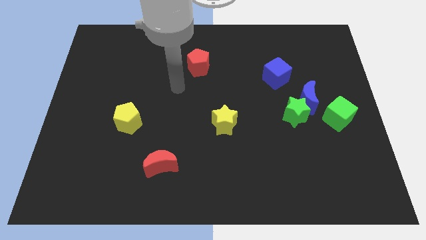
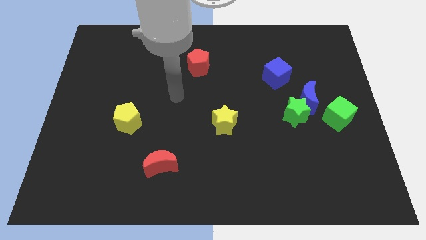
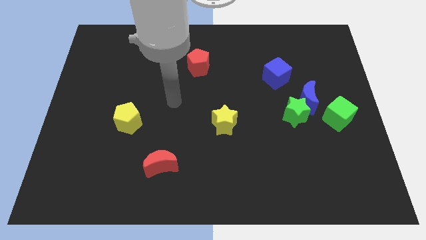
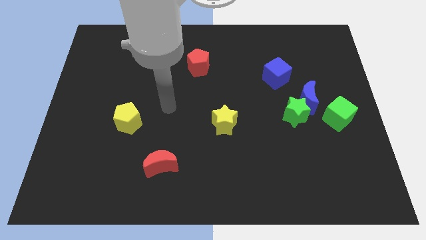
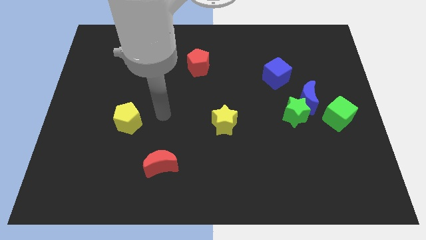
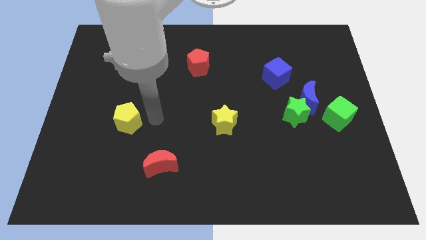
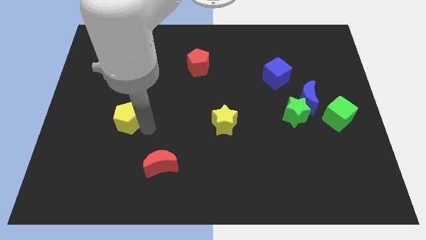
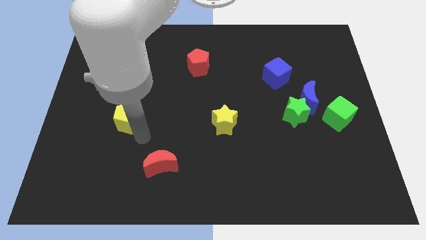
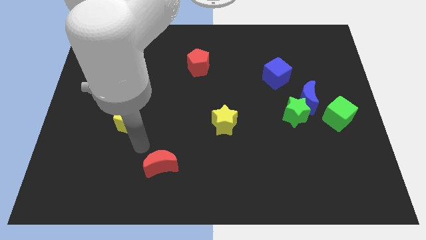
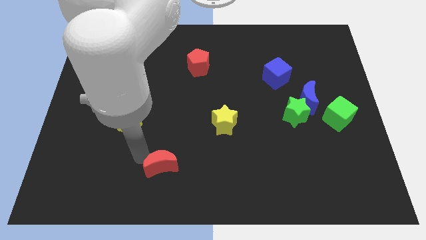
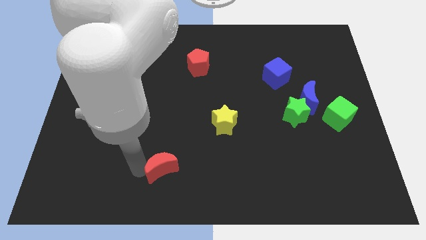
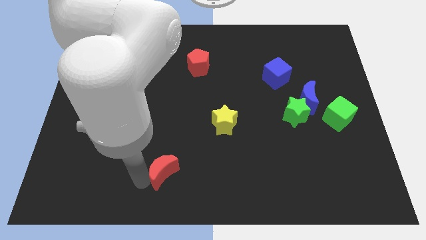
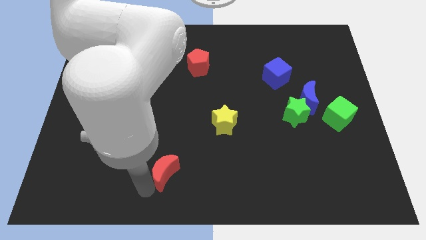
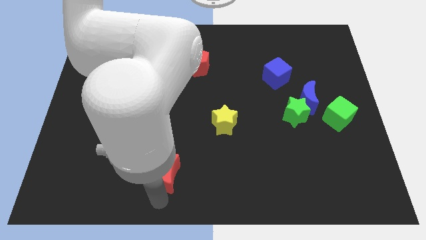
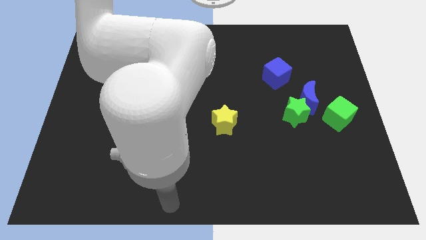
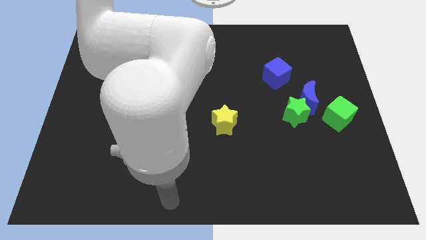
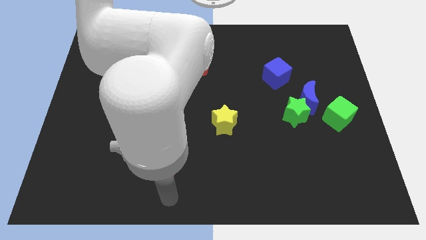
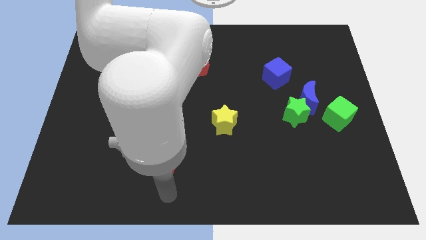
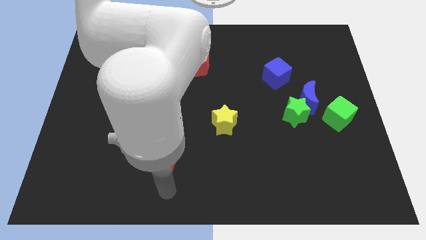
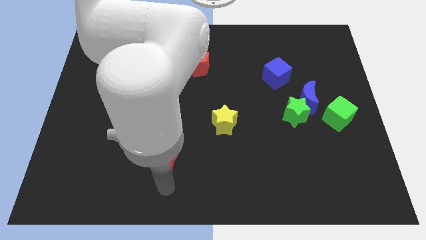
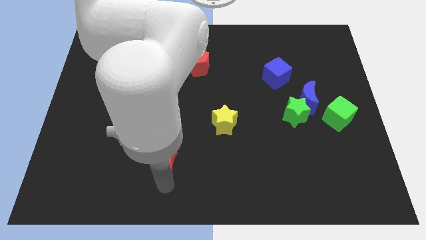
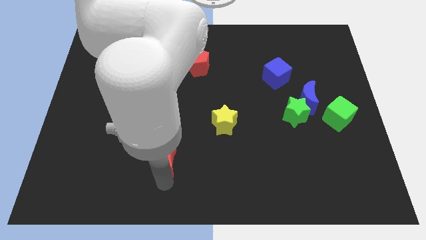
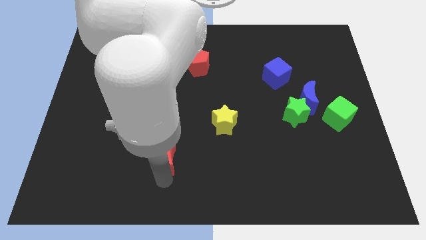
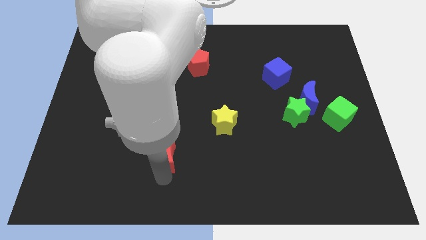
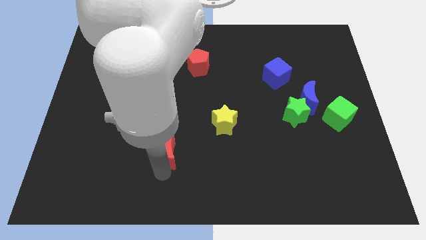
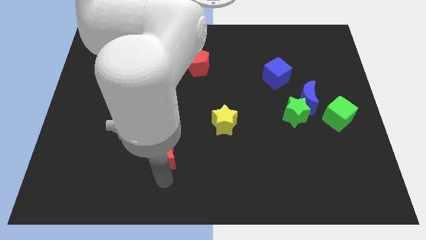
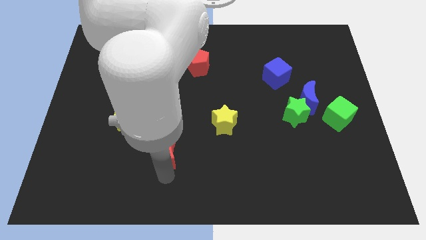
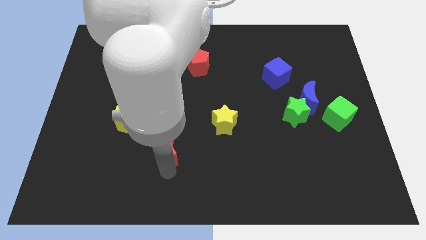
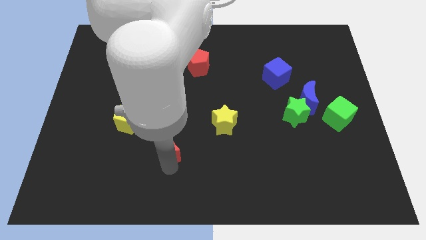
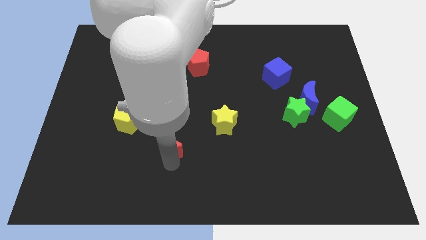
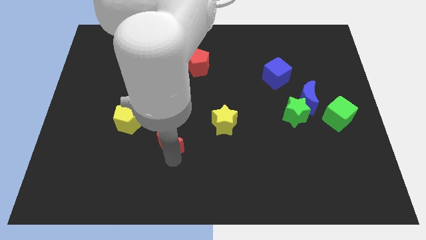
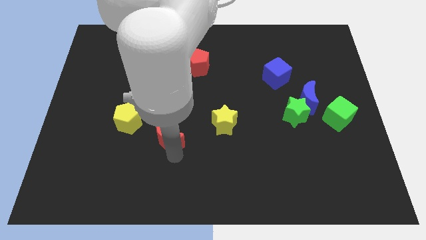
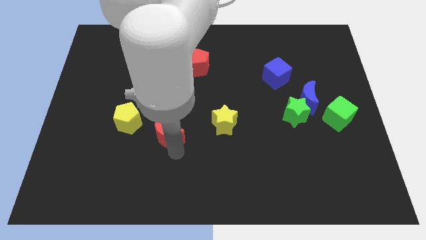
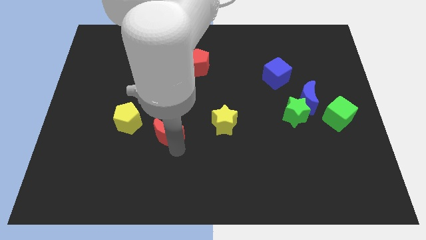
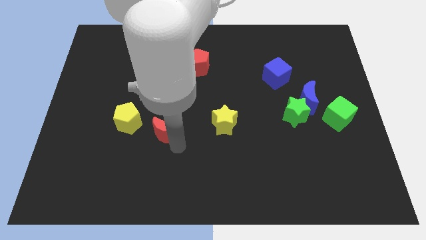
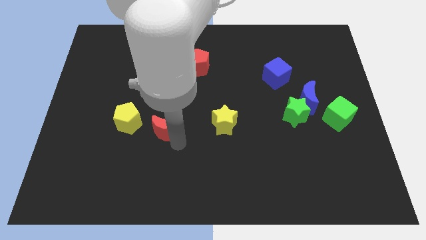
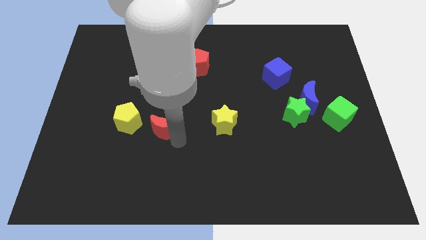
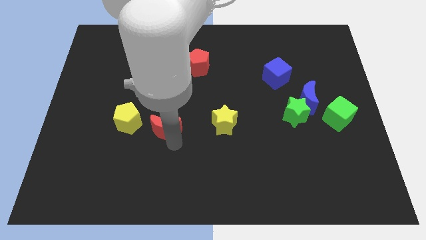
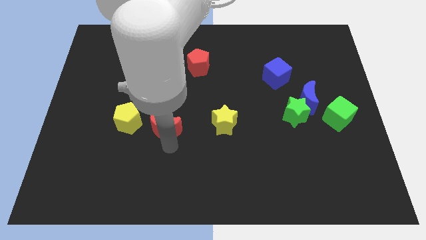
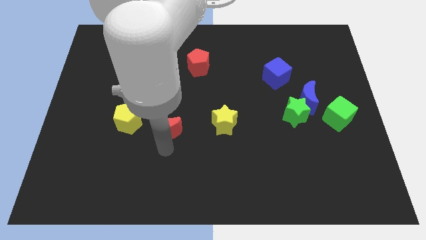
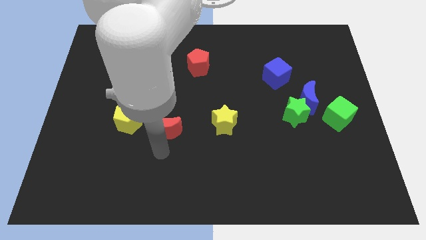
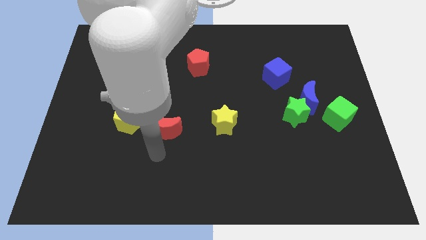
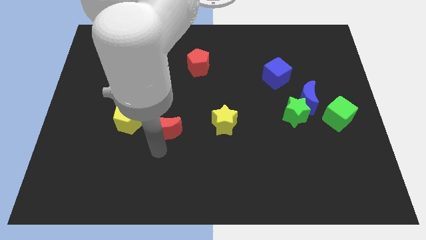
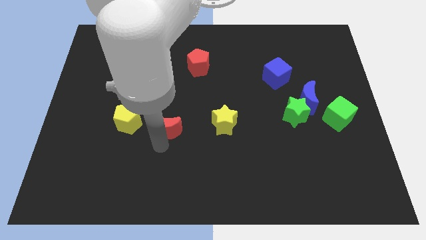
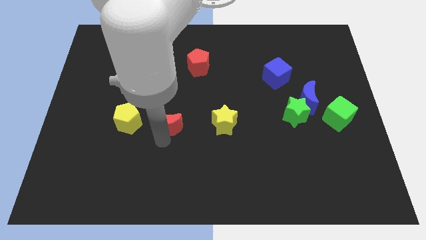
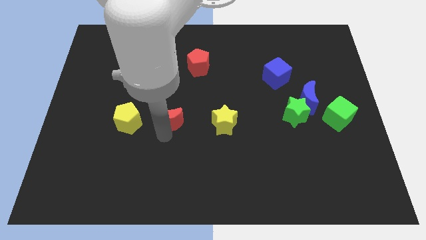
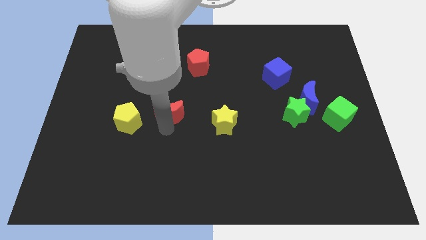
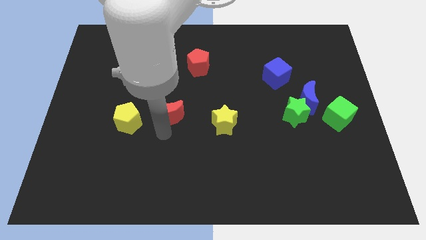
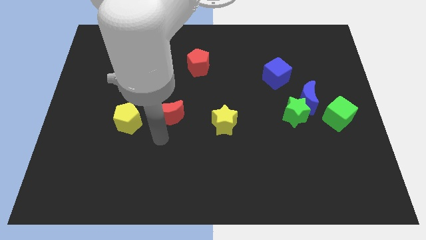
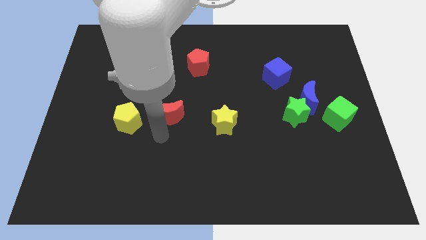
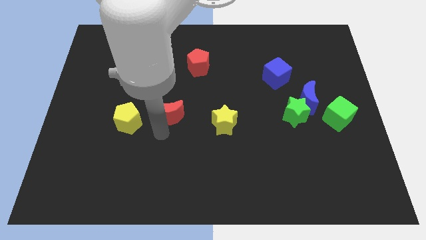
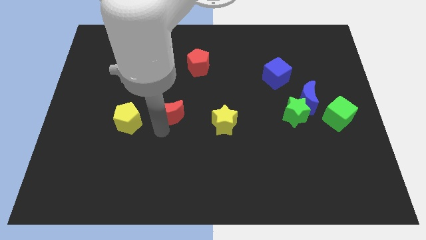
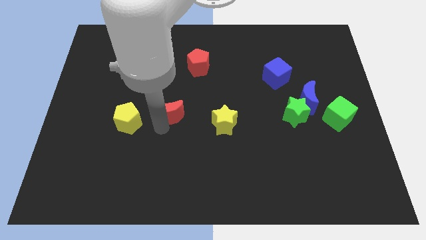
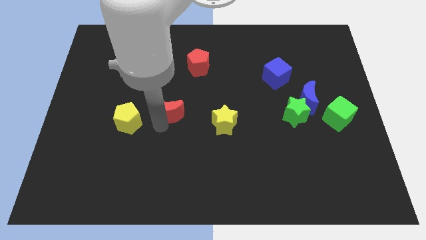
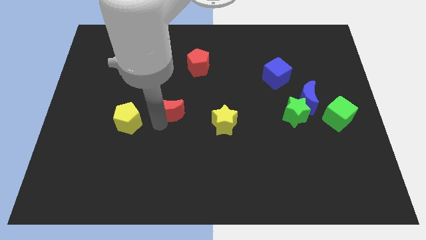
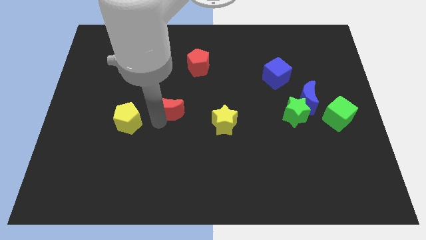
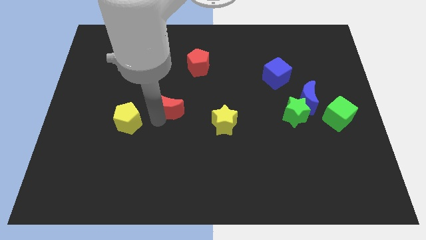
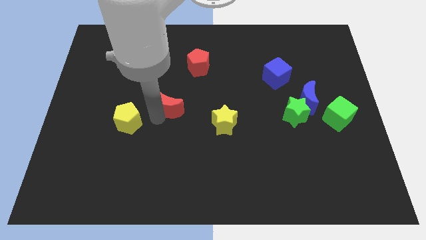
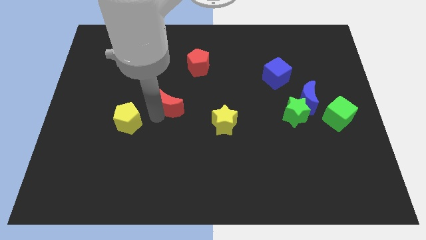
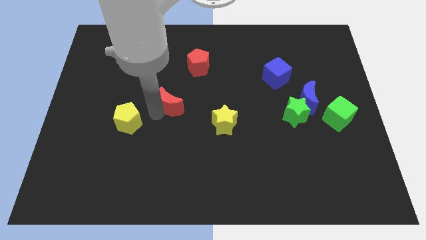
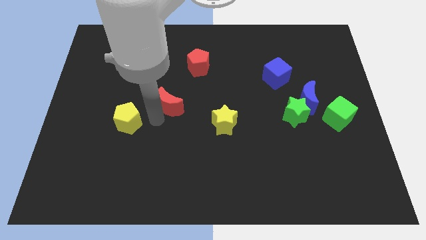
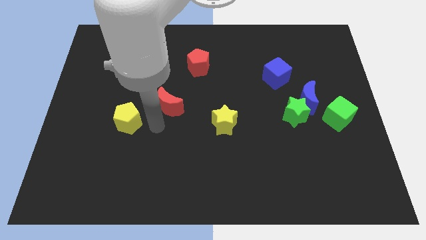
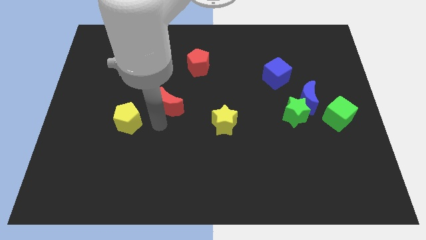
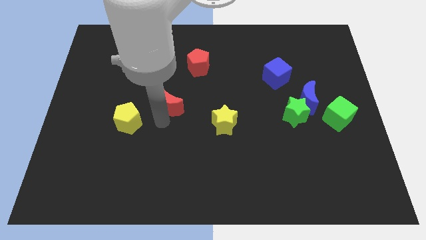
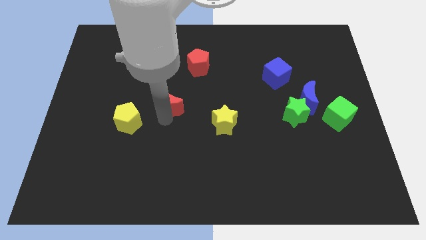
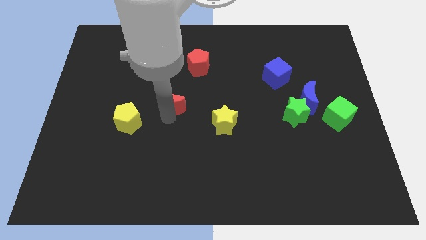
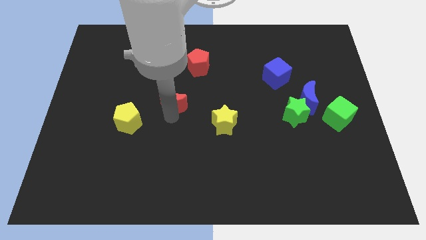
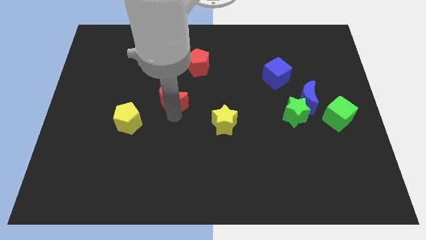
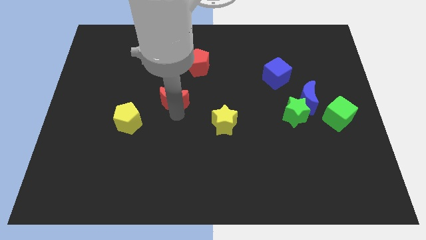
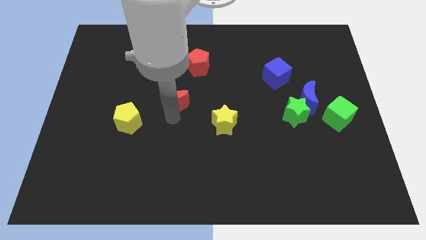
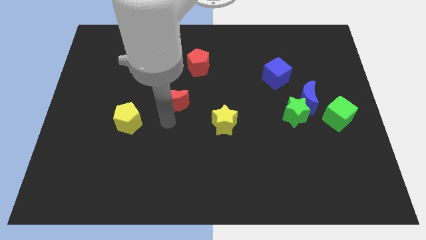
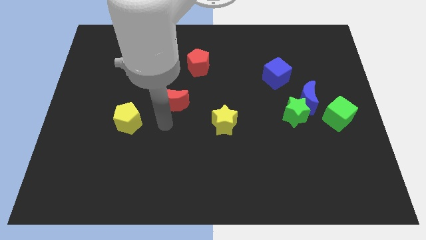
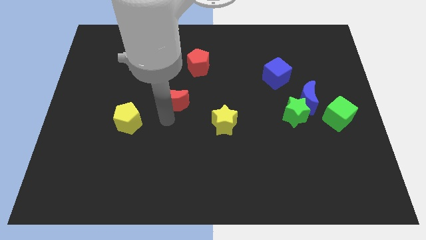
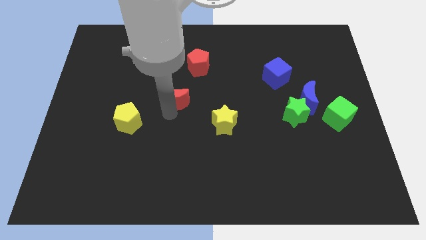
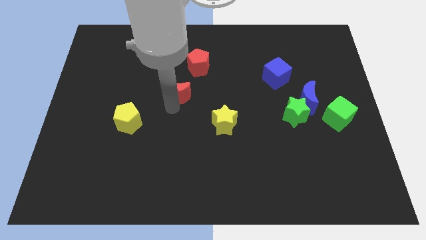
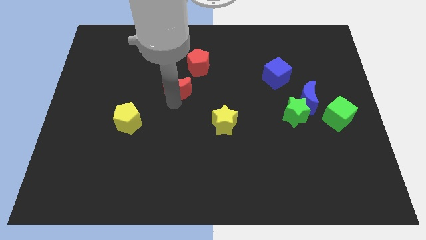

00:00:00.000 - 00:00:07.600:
slide the red moon upwards

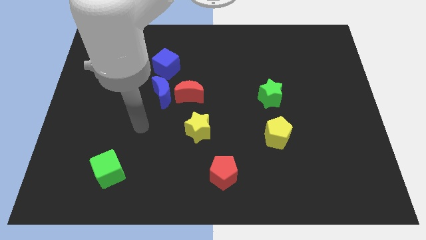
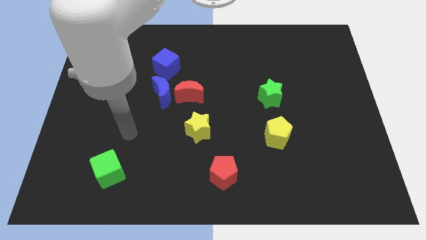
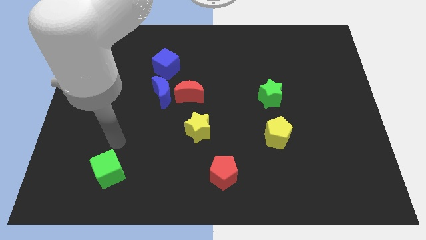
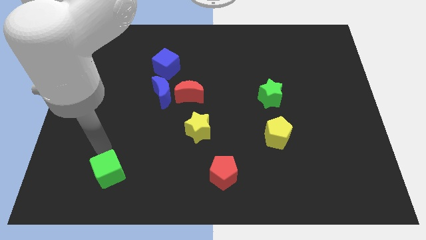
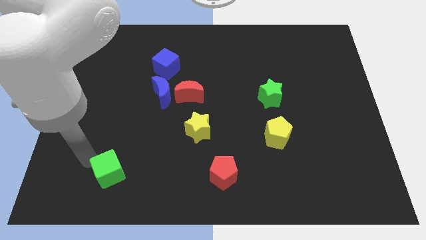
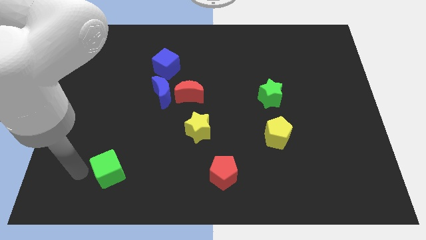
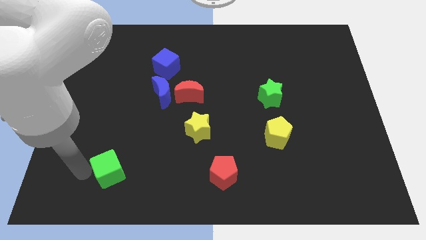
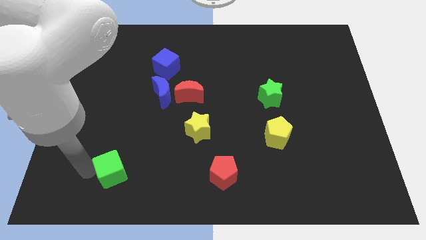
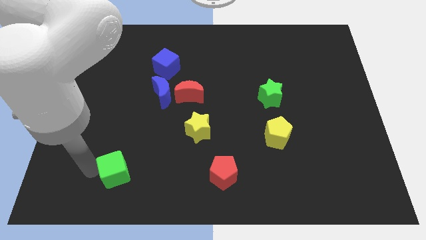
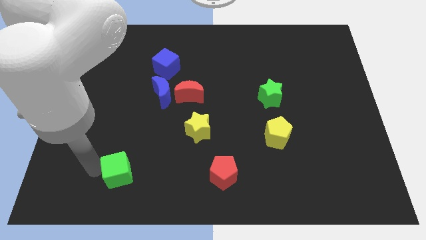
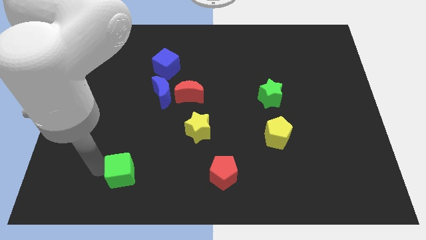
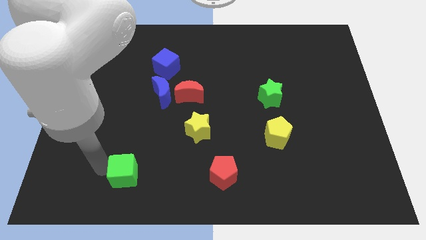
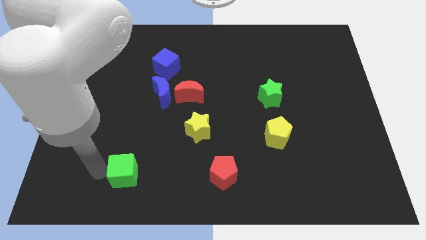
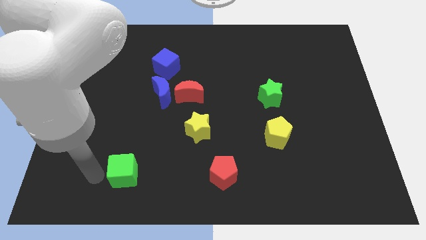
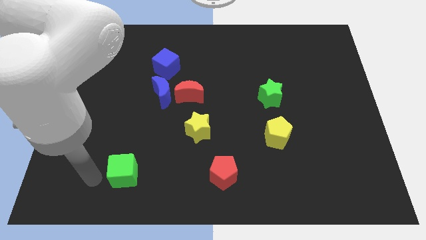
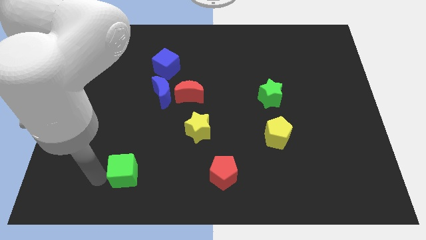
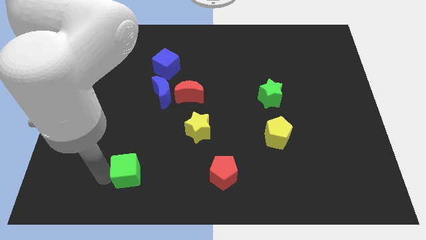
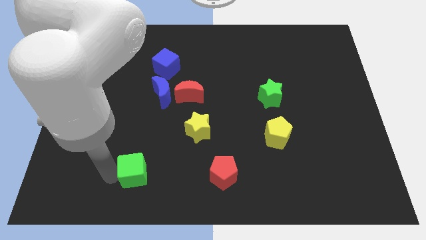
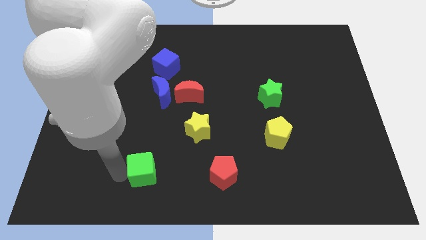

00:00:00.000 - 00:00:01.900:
push the green cube slightly right
